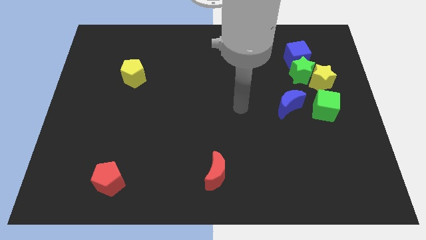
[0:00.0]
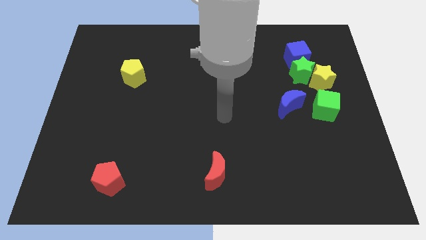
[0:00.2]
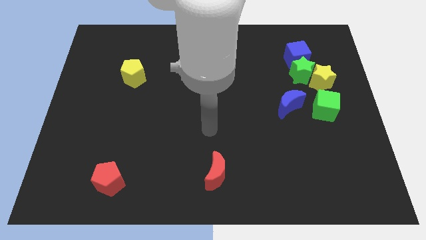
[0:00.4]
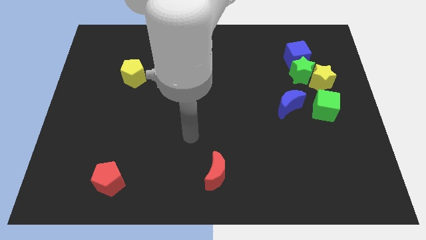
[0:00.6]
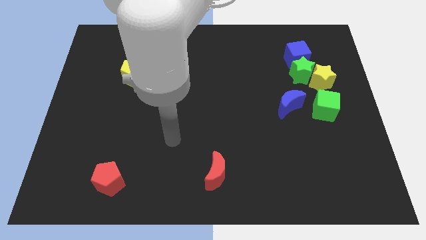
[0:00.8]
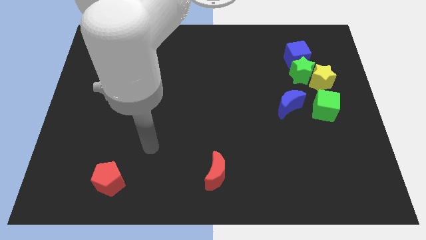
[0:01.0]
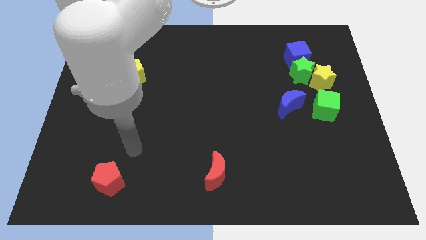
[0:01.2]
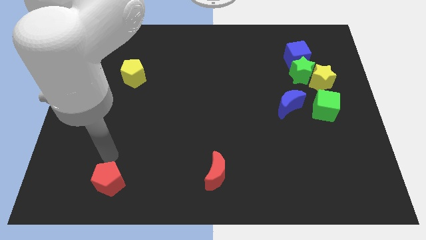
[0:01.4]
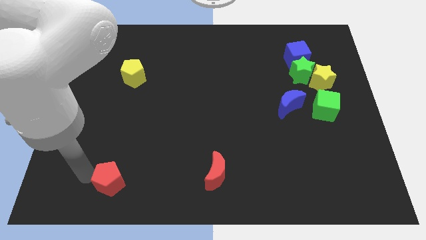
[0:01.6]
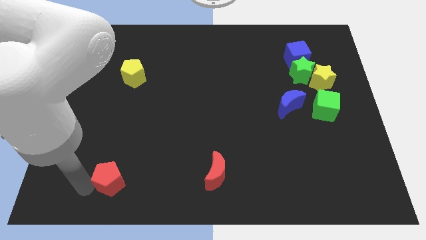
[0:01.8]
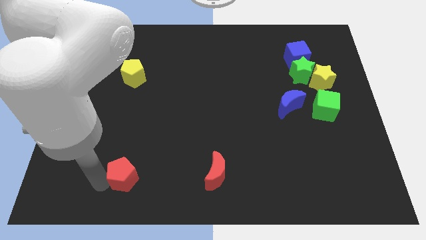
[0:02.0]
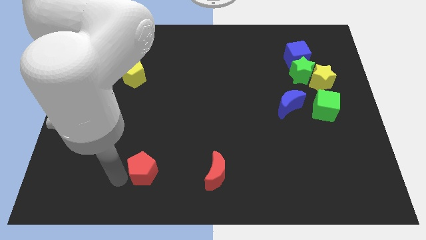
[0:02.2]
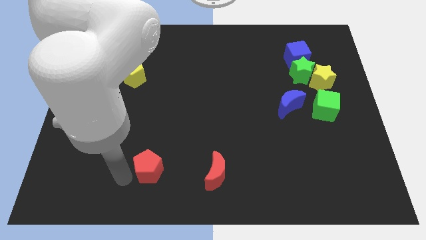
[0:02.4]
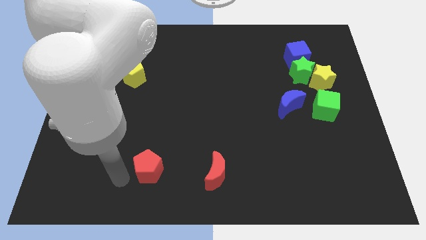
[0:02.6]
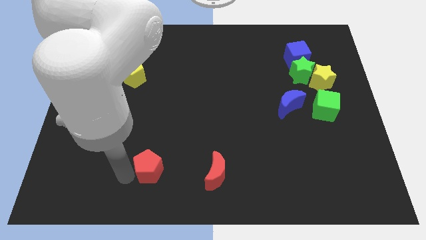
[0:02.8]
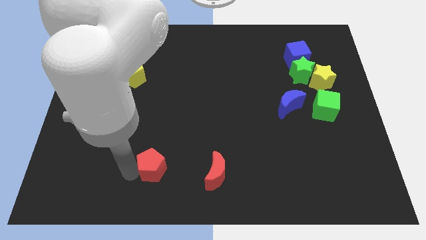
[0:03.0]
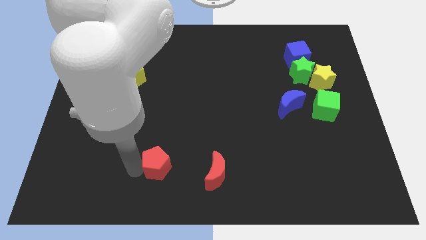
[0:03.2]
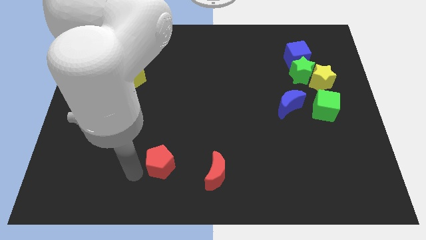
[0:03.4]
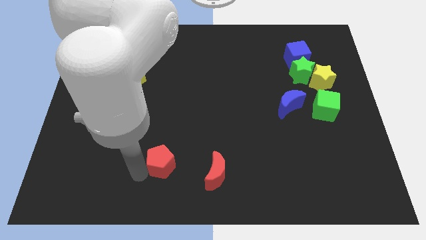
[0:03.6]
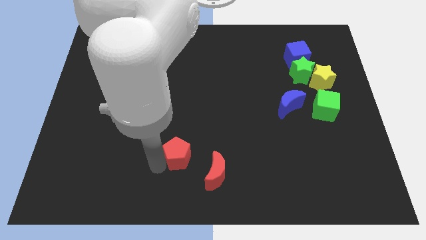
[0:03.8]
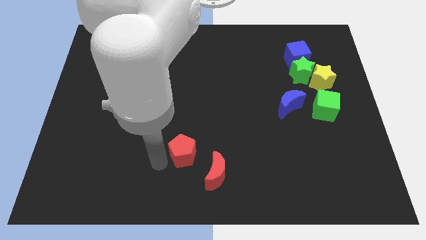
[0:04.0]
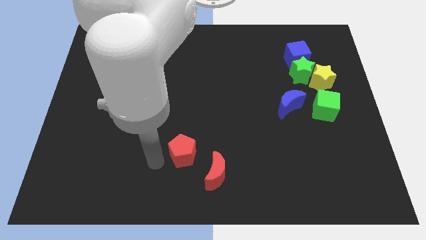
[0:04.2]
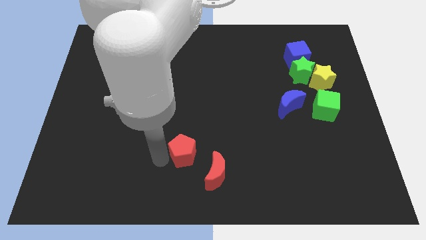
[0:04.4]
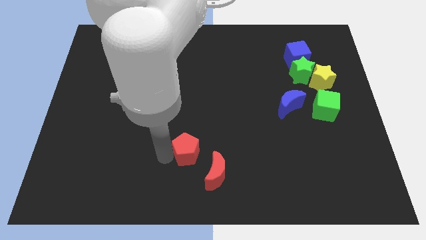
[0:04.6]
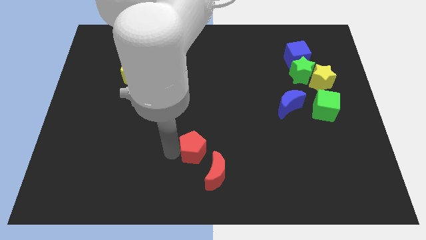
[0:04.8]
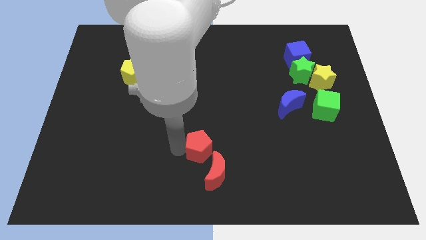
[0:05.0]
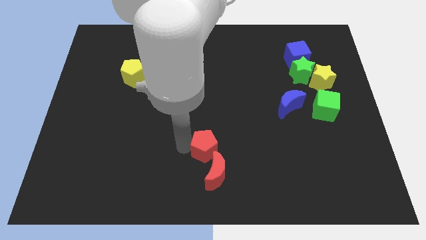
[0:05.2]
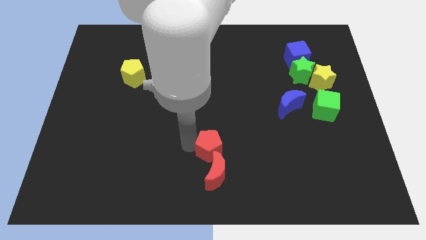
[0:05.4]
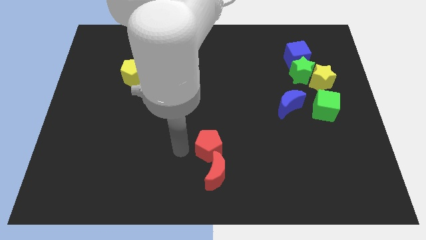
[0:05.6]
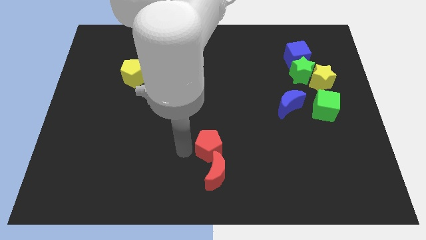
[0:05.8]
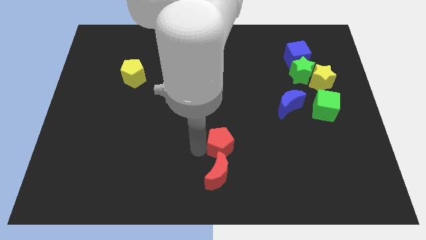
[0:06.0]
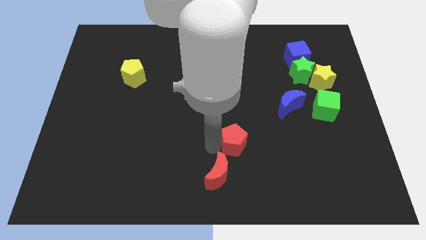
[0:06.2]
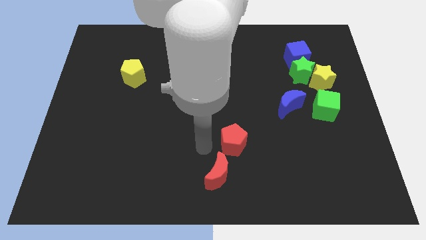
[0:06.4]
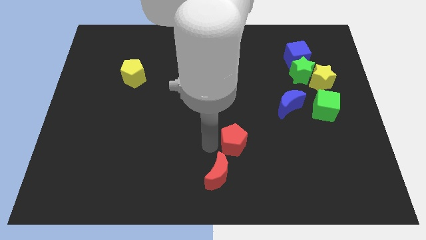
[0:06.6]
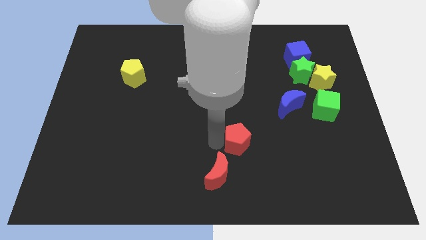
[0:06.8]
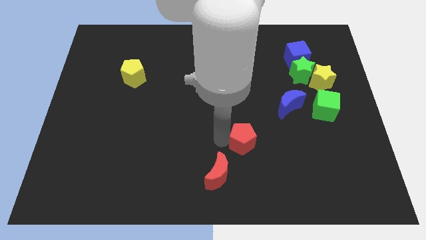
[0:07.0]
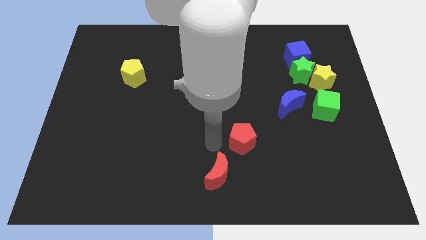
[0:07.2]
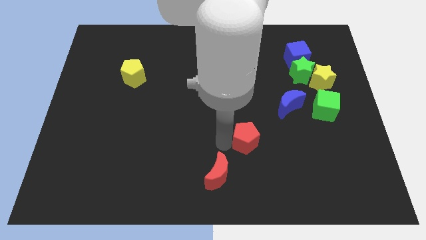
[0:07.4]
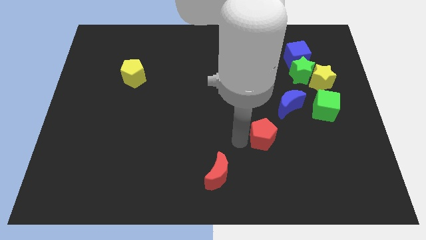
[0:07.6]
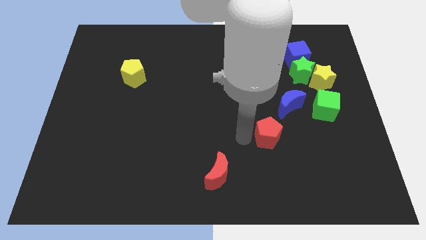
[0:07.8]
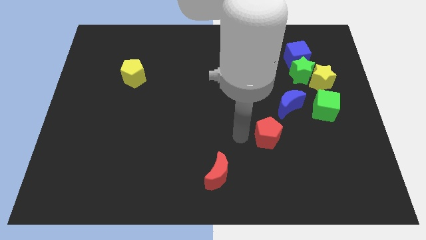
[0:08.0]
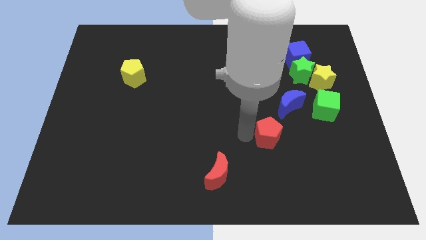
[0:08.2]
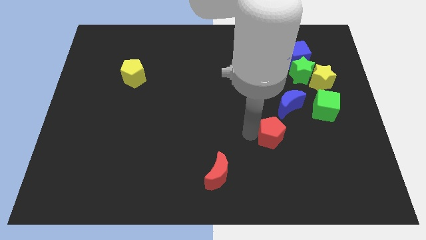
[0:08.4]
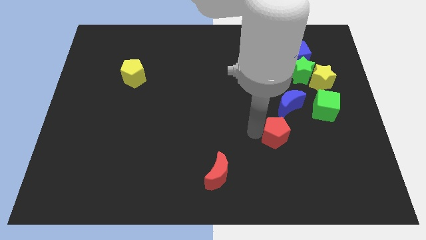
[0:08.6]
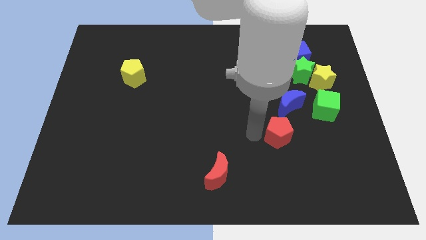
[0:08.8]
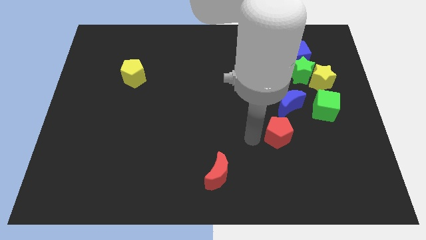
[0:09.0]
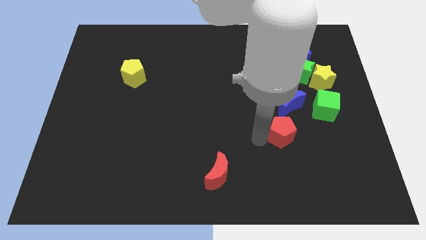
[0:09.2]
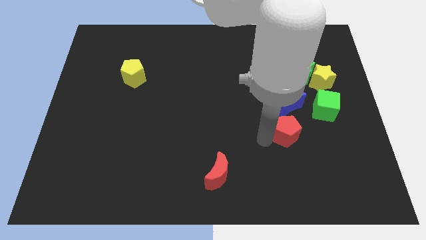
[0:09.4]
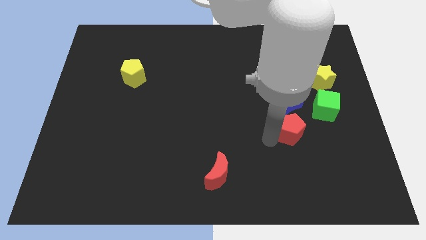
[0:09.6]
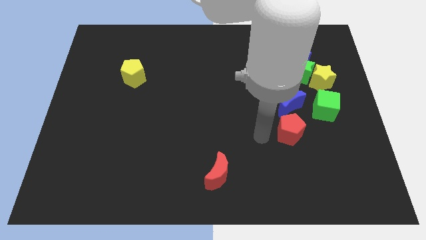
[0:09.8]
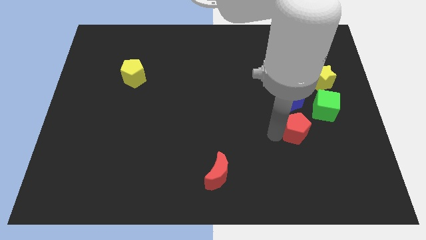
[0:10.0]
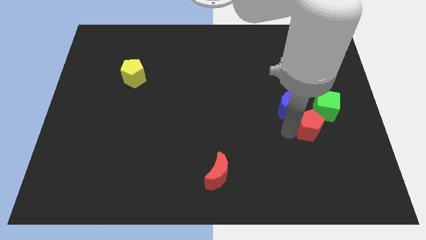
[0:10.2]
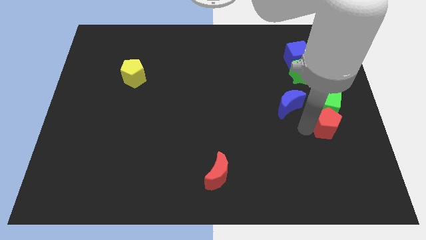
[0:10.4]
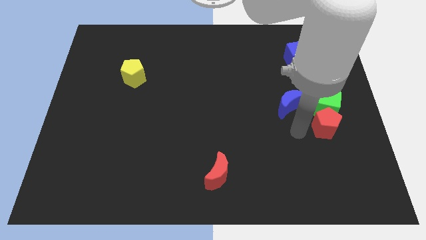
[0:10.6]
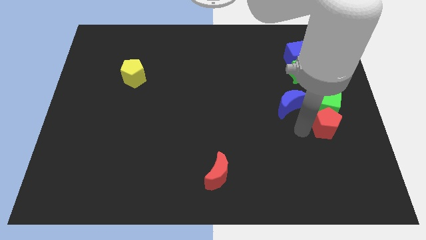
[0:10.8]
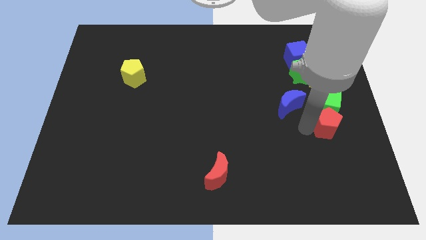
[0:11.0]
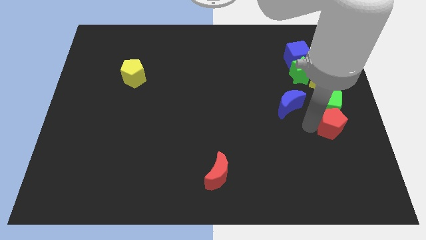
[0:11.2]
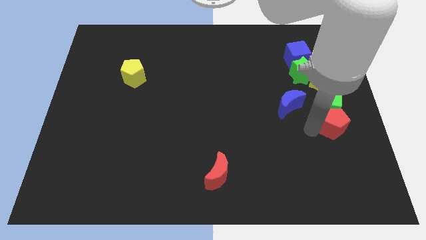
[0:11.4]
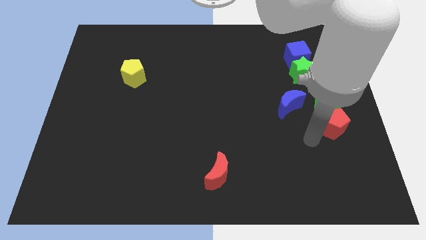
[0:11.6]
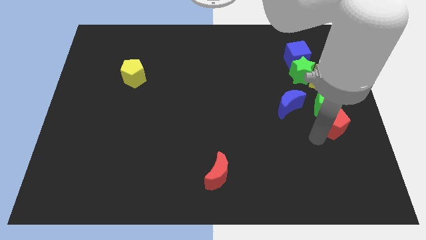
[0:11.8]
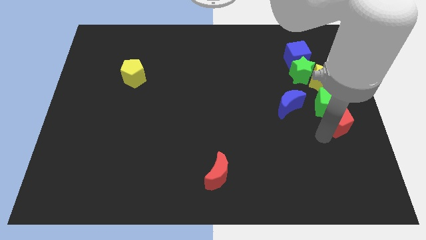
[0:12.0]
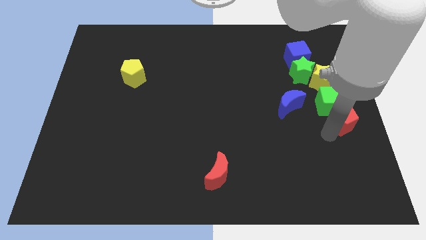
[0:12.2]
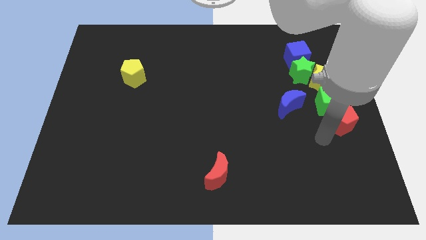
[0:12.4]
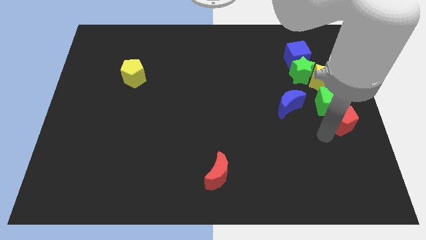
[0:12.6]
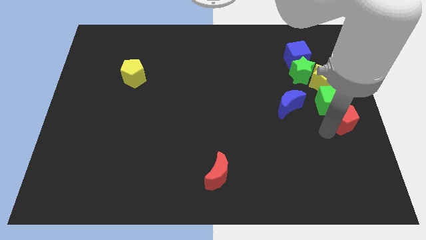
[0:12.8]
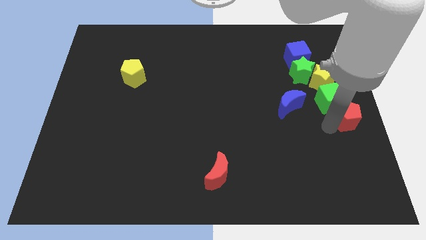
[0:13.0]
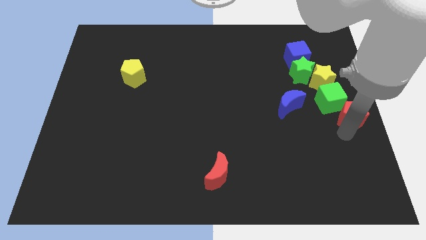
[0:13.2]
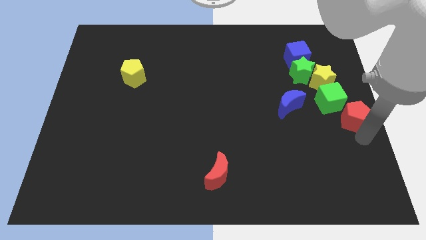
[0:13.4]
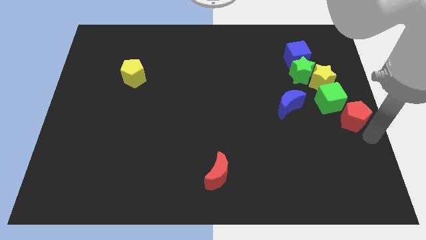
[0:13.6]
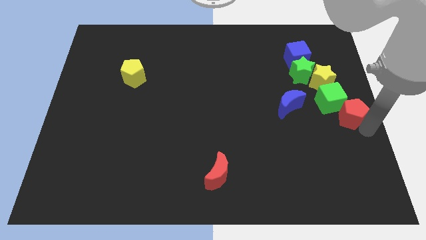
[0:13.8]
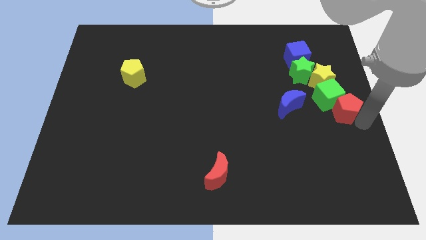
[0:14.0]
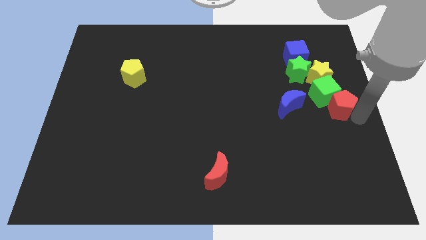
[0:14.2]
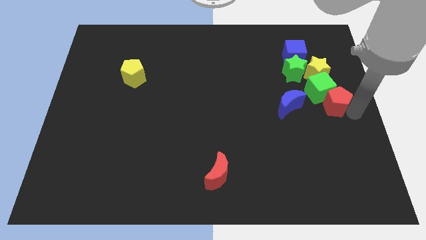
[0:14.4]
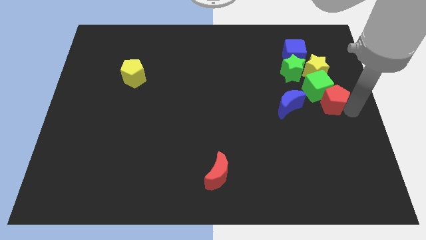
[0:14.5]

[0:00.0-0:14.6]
put the red pentagon to the bottom right of the green star
